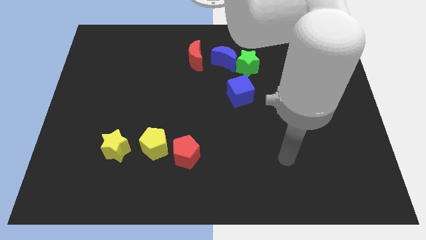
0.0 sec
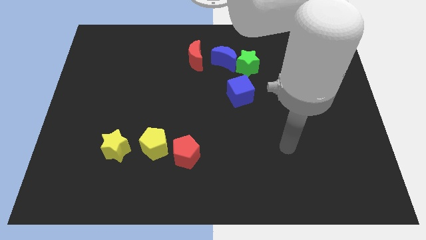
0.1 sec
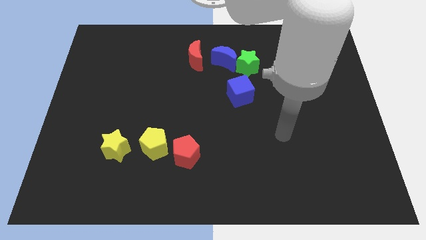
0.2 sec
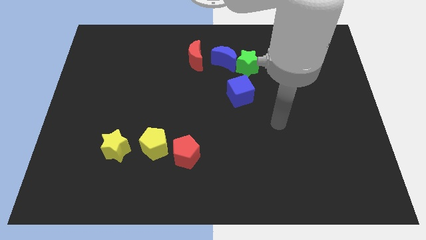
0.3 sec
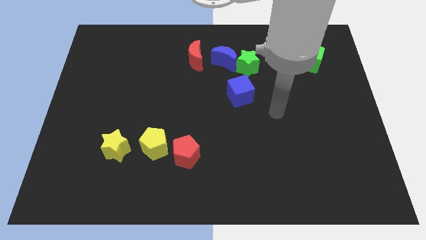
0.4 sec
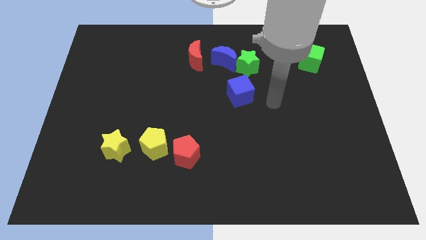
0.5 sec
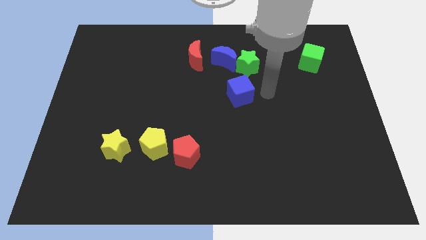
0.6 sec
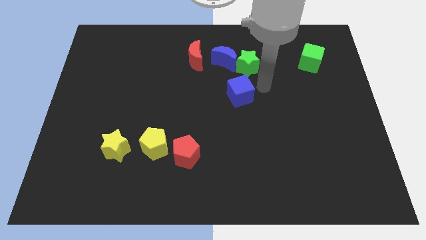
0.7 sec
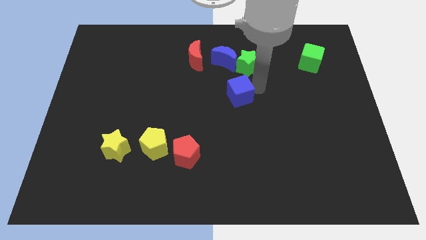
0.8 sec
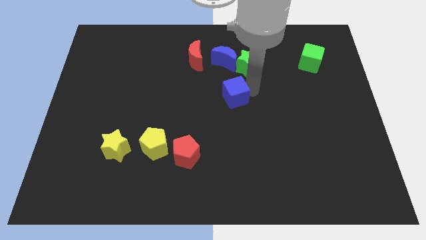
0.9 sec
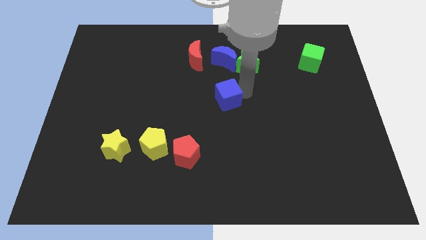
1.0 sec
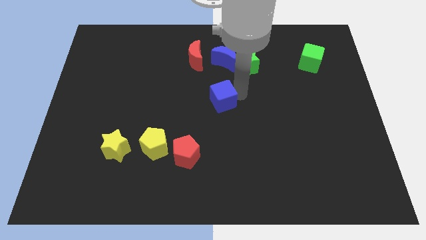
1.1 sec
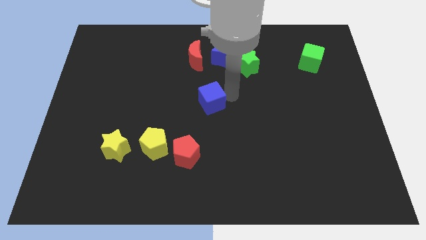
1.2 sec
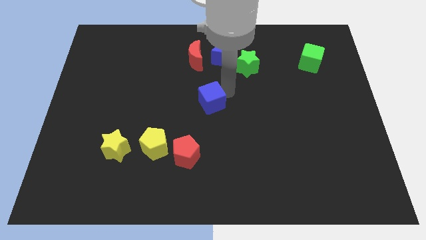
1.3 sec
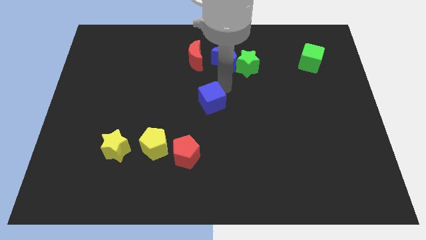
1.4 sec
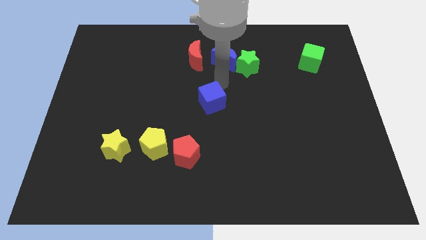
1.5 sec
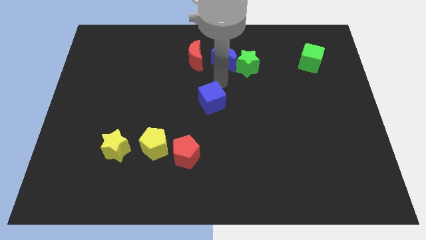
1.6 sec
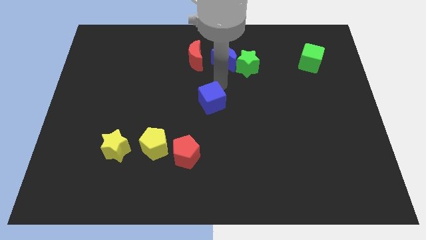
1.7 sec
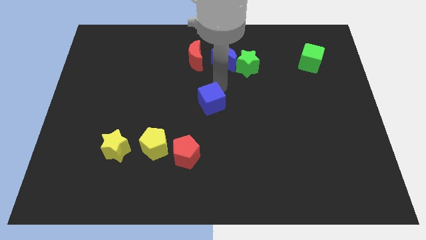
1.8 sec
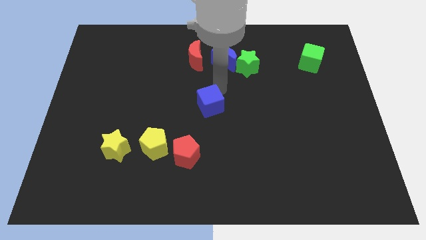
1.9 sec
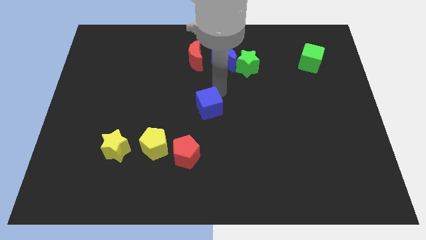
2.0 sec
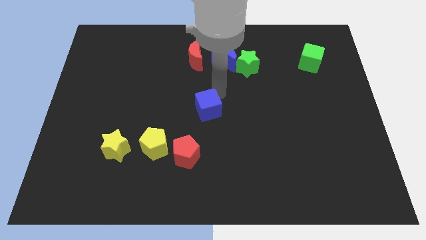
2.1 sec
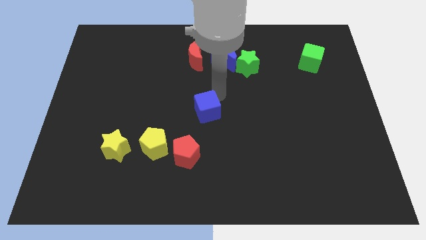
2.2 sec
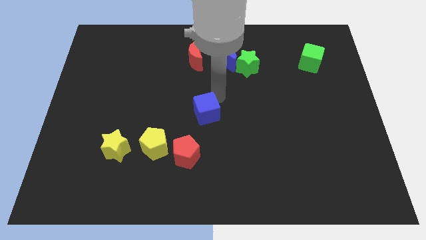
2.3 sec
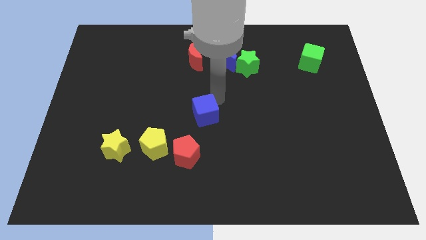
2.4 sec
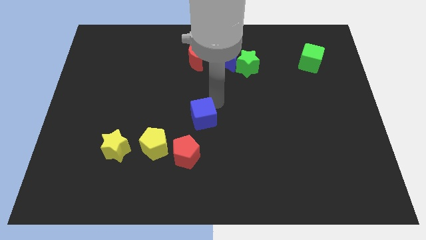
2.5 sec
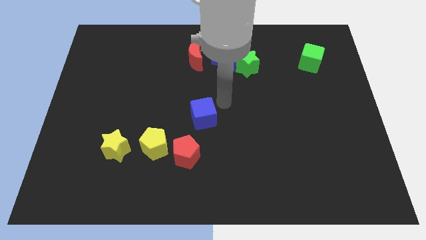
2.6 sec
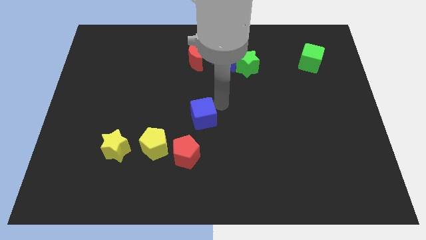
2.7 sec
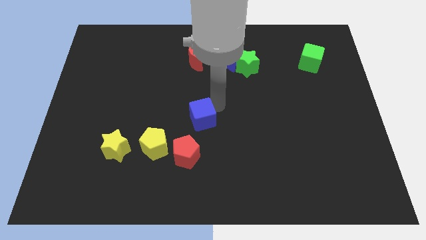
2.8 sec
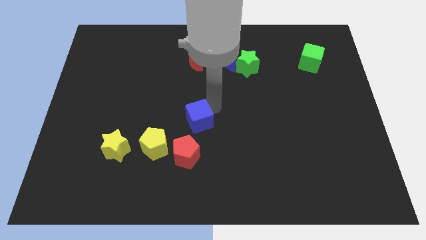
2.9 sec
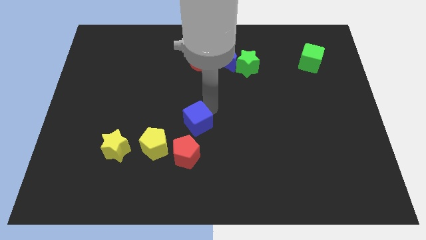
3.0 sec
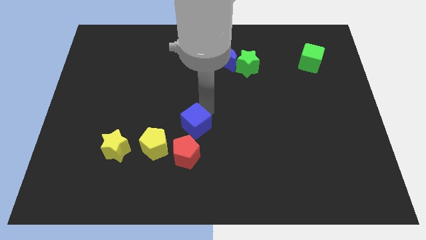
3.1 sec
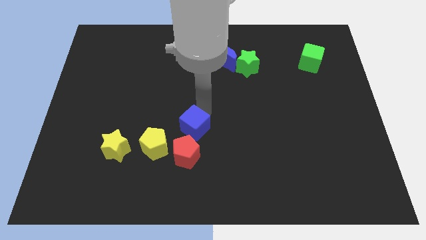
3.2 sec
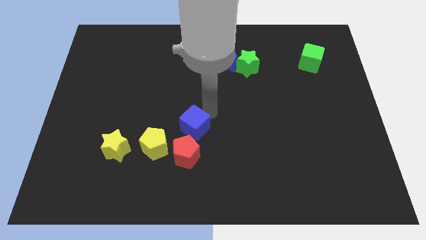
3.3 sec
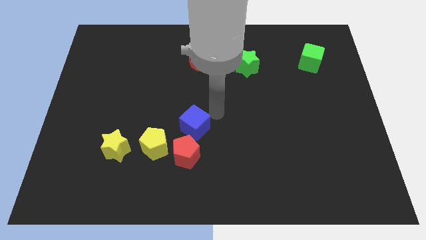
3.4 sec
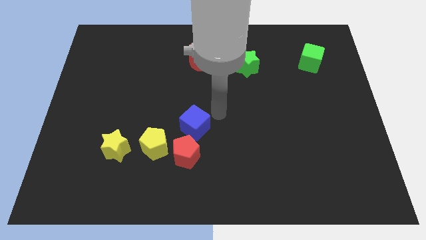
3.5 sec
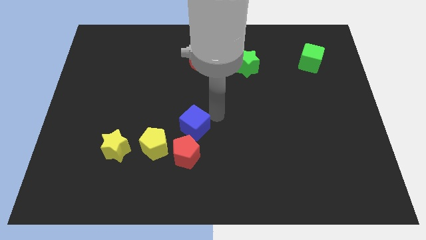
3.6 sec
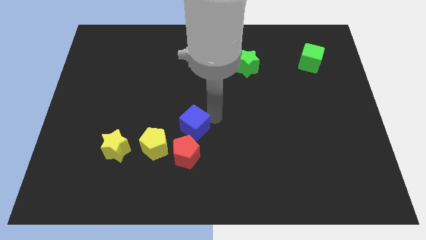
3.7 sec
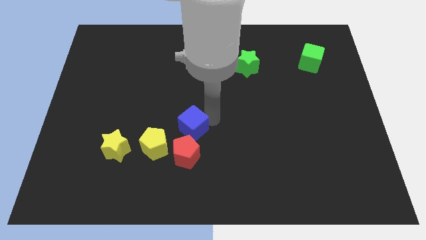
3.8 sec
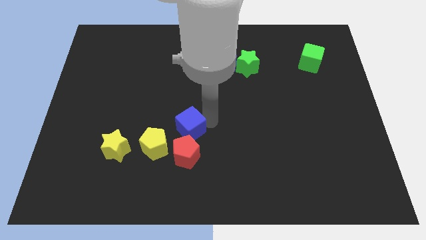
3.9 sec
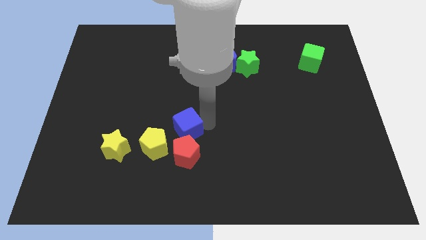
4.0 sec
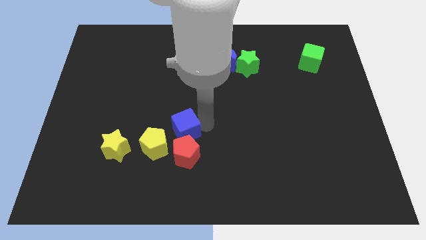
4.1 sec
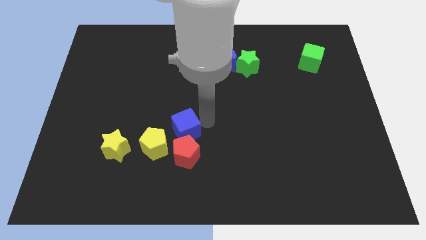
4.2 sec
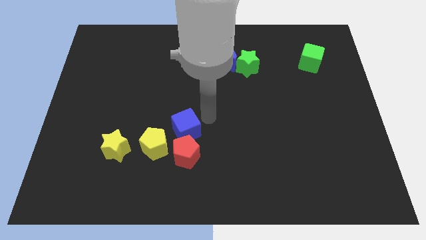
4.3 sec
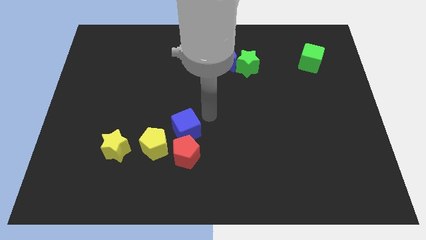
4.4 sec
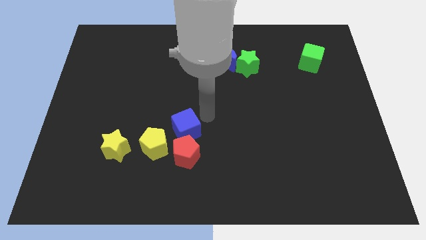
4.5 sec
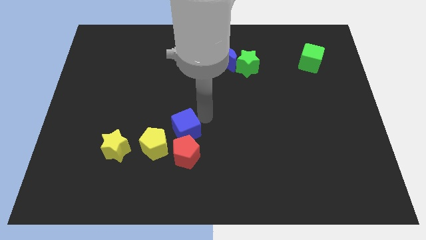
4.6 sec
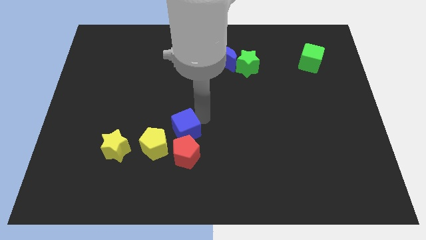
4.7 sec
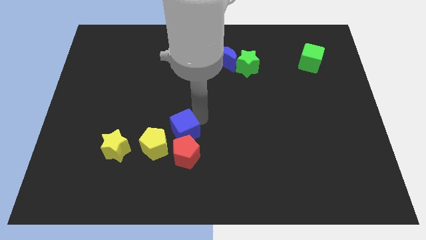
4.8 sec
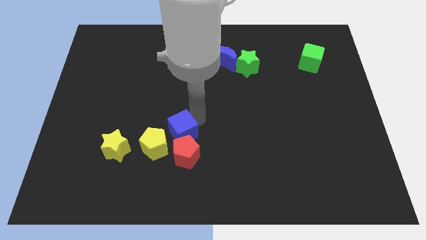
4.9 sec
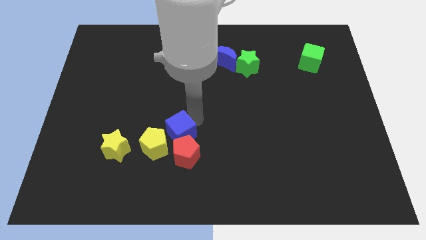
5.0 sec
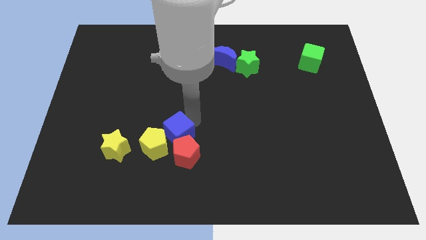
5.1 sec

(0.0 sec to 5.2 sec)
move the blue cube next to the yellow pentagon

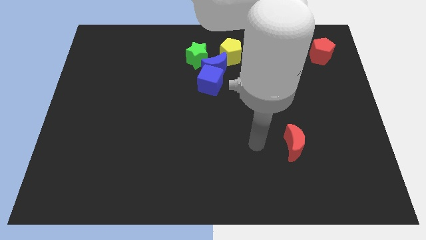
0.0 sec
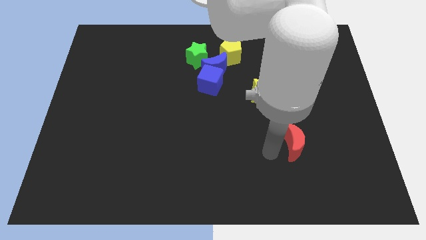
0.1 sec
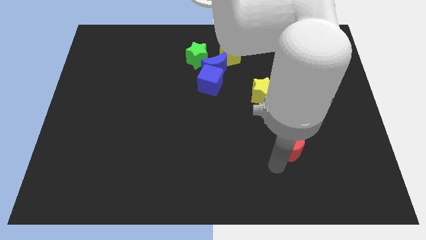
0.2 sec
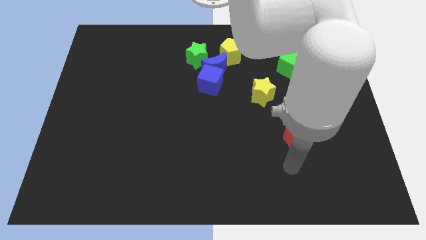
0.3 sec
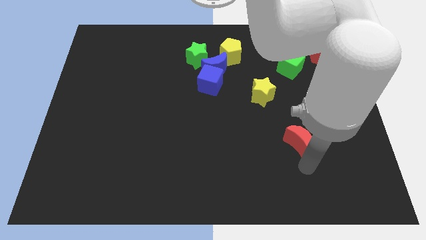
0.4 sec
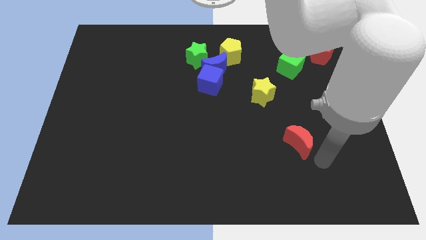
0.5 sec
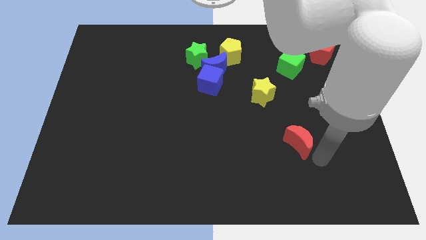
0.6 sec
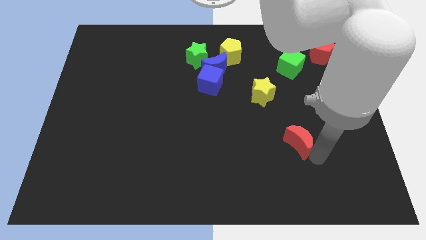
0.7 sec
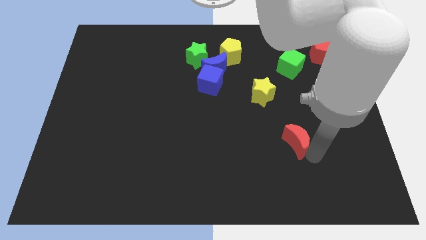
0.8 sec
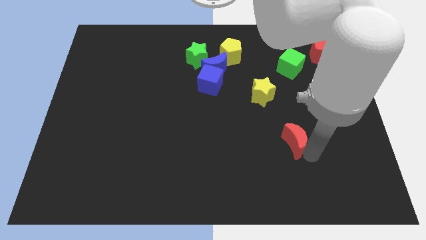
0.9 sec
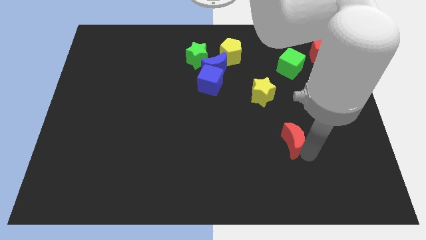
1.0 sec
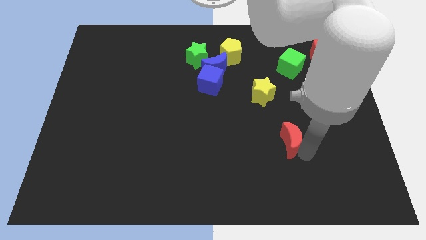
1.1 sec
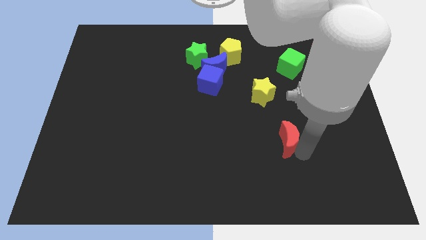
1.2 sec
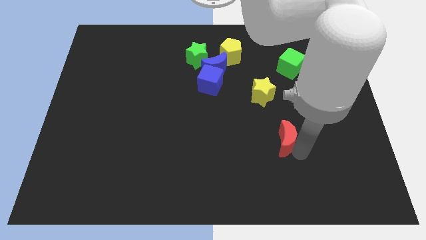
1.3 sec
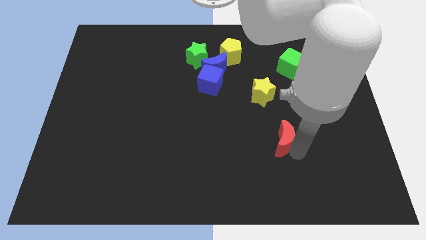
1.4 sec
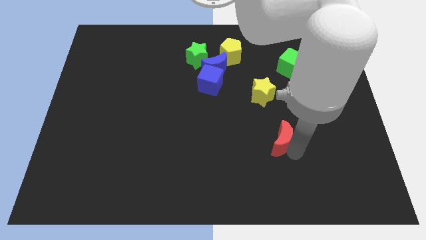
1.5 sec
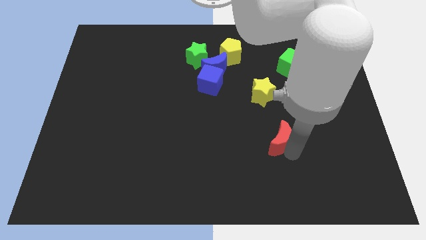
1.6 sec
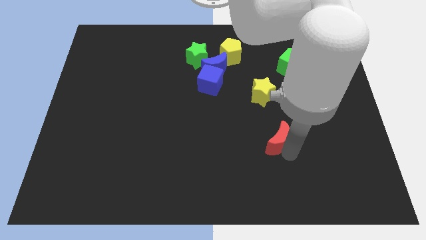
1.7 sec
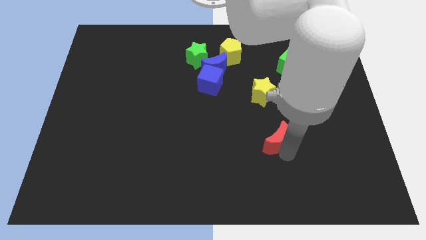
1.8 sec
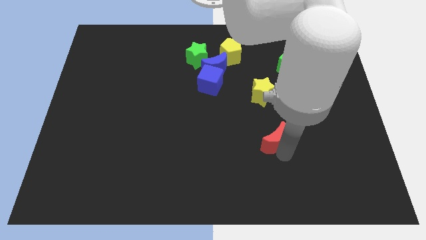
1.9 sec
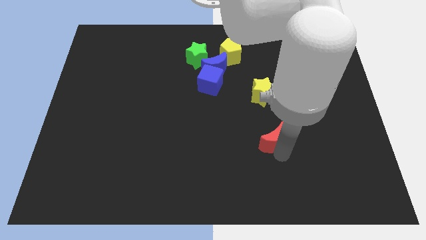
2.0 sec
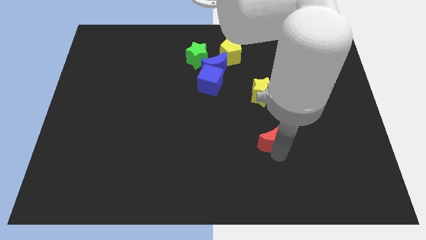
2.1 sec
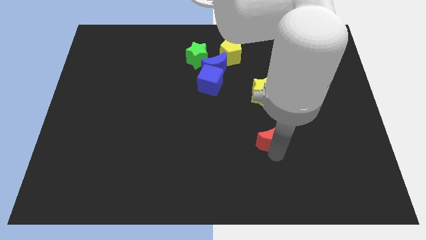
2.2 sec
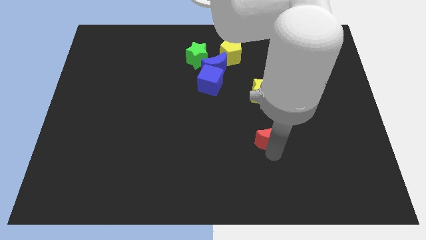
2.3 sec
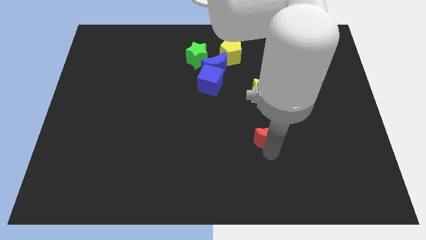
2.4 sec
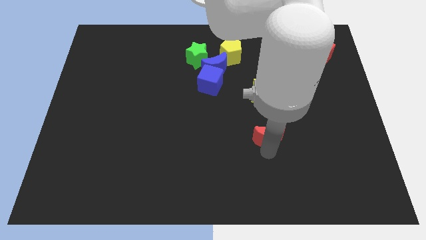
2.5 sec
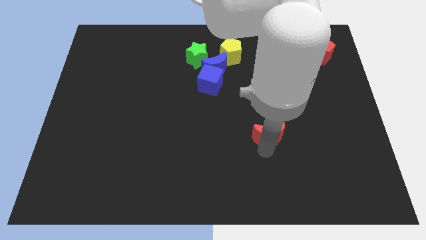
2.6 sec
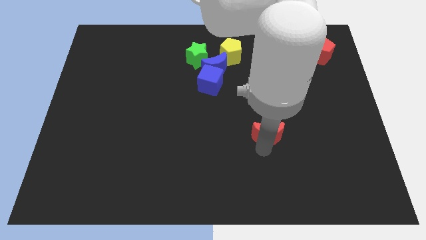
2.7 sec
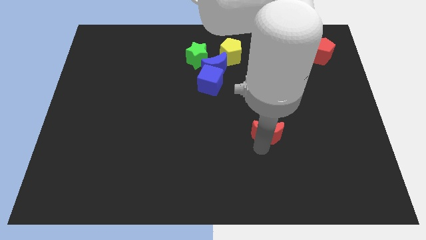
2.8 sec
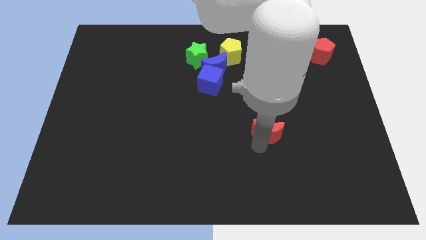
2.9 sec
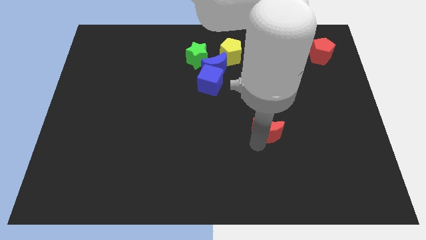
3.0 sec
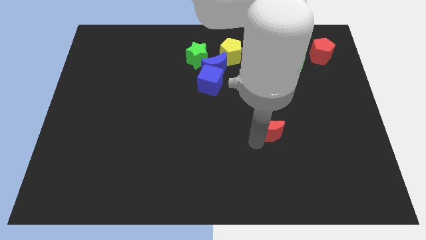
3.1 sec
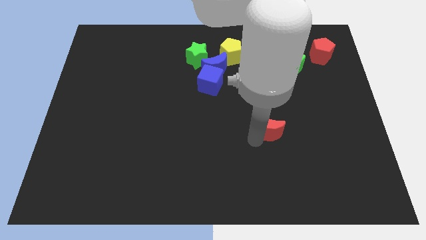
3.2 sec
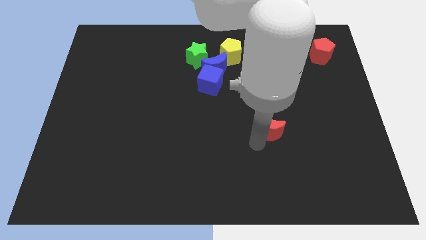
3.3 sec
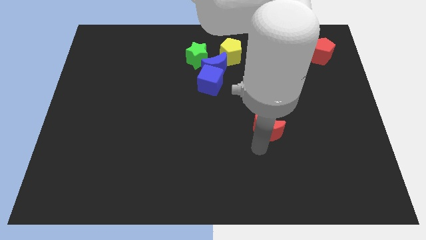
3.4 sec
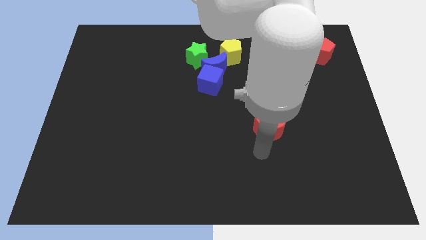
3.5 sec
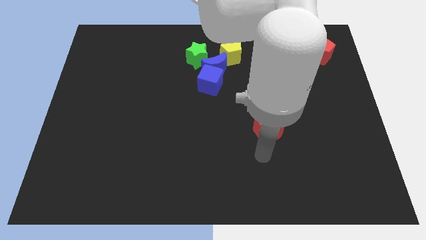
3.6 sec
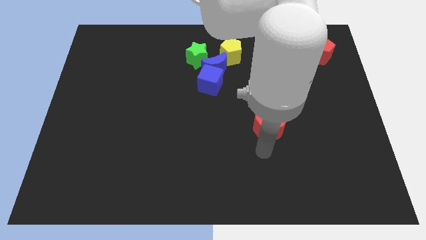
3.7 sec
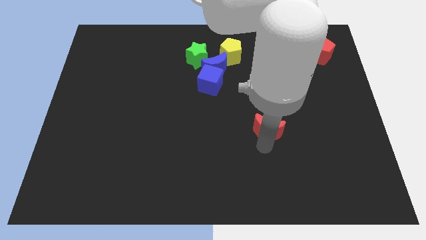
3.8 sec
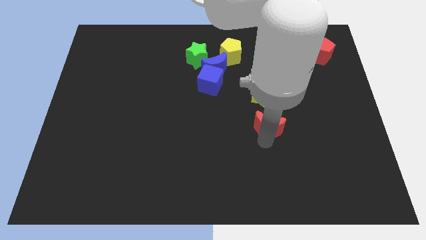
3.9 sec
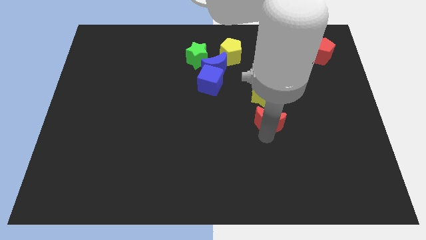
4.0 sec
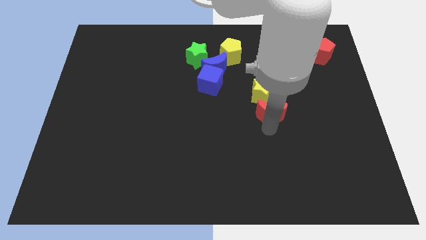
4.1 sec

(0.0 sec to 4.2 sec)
move the red moon next to the yellow star
